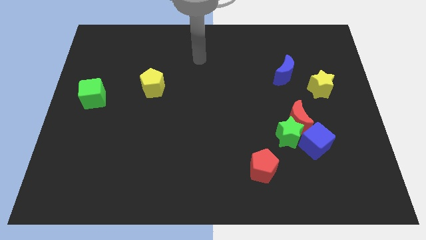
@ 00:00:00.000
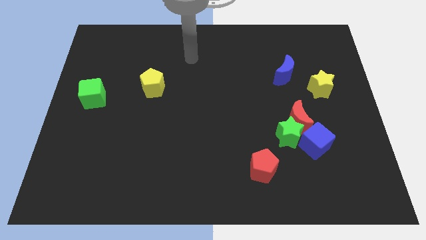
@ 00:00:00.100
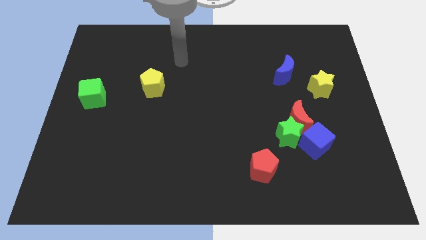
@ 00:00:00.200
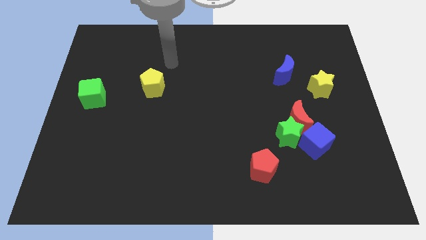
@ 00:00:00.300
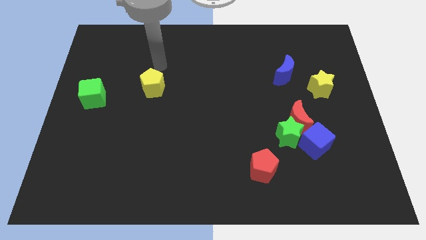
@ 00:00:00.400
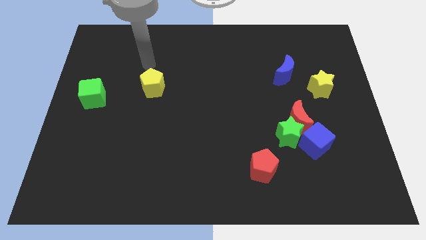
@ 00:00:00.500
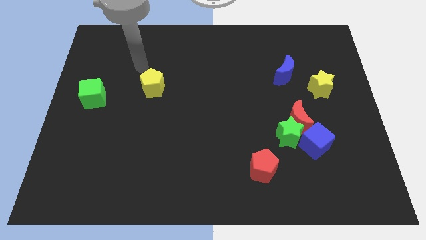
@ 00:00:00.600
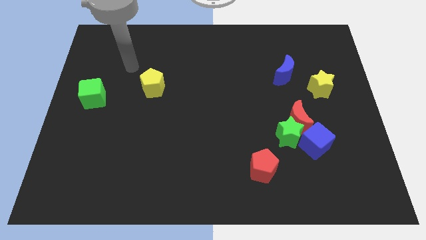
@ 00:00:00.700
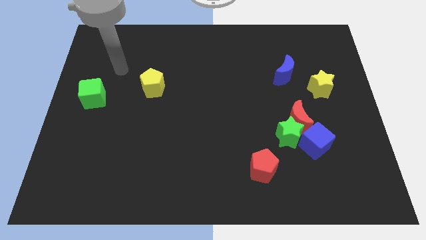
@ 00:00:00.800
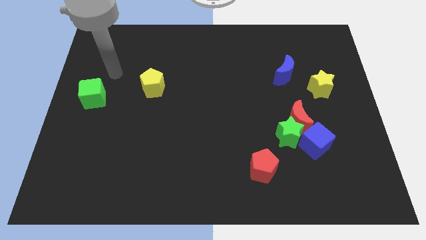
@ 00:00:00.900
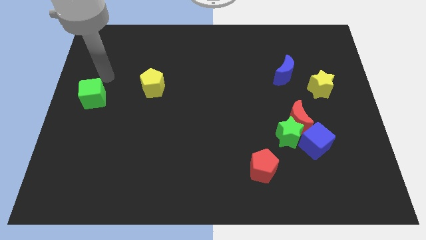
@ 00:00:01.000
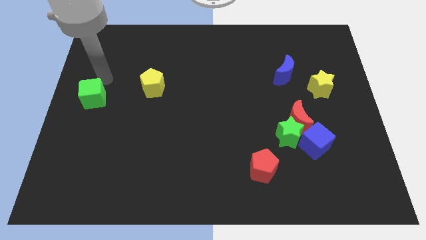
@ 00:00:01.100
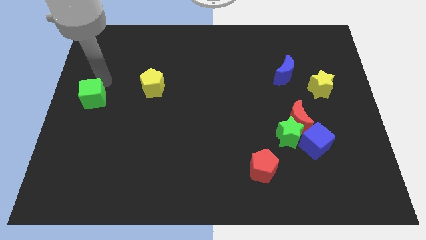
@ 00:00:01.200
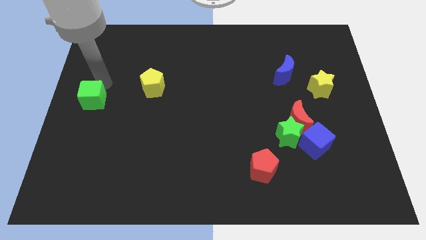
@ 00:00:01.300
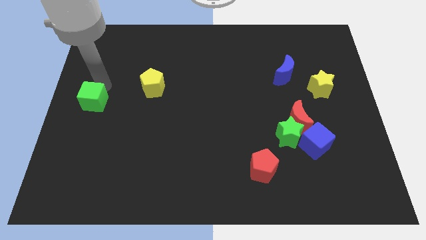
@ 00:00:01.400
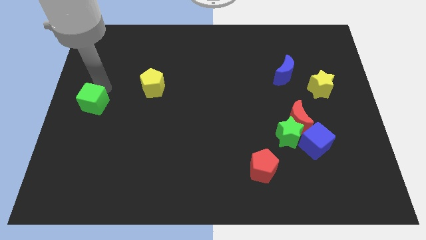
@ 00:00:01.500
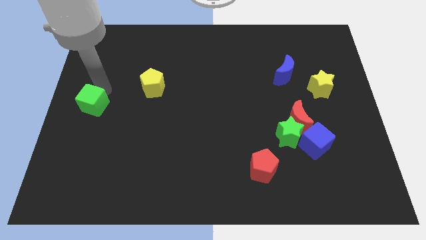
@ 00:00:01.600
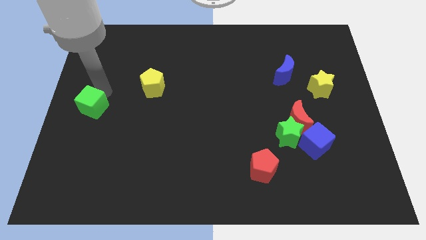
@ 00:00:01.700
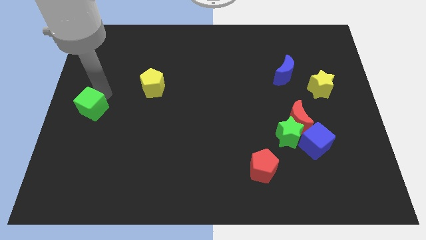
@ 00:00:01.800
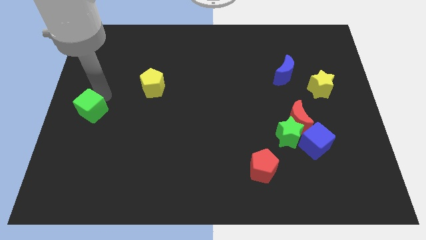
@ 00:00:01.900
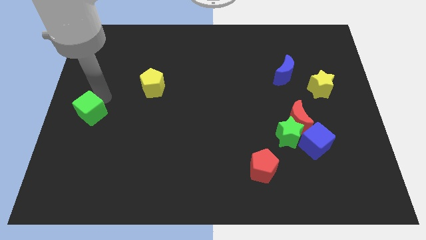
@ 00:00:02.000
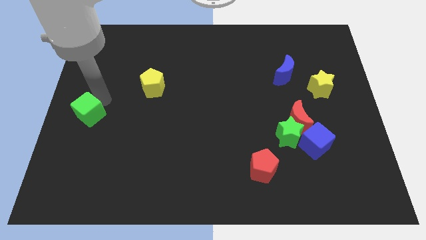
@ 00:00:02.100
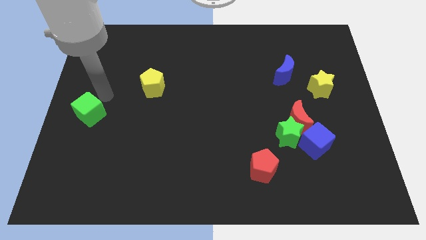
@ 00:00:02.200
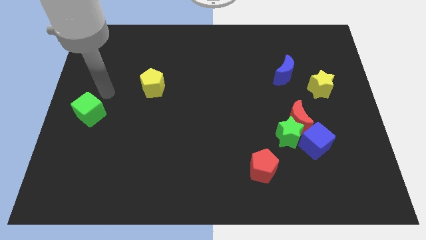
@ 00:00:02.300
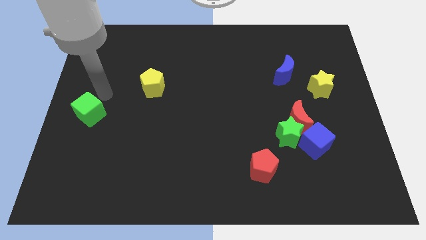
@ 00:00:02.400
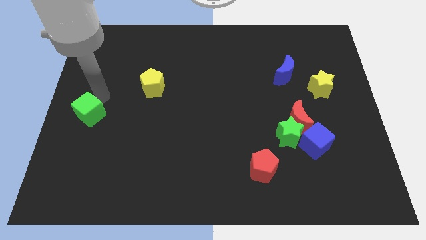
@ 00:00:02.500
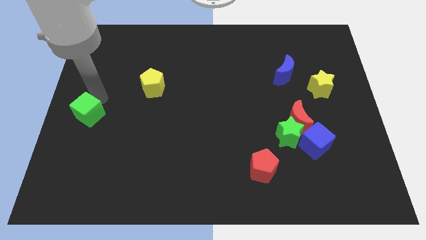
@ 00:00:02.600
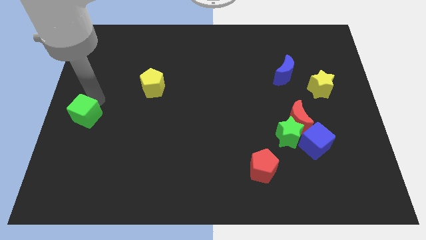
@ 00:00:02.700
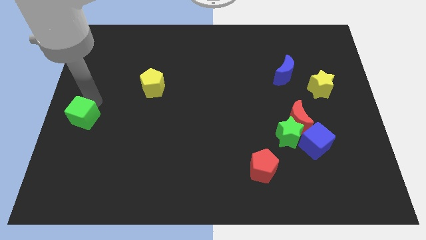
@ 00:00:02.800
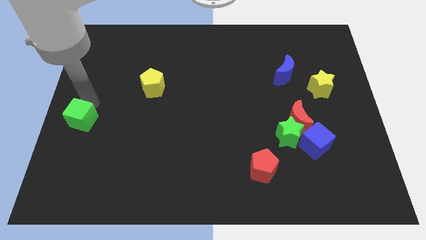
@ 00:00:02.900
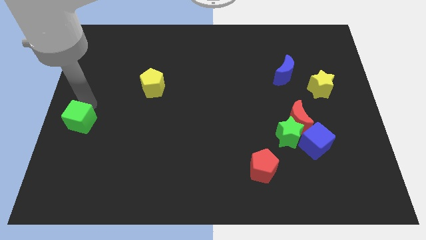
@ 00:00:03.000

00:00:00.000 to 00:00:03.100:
slide the green cube somewhat downwards

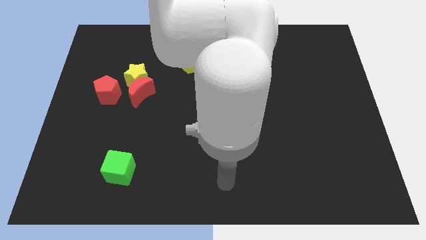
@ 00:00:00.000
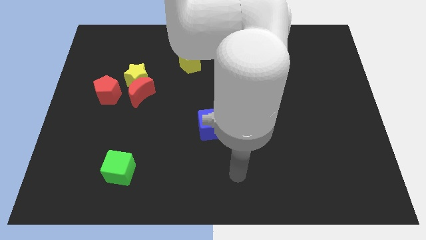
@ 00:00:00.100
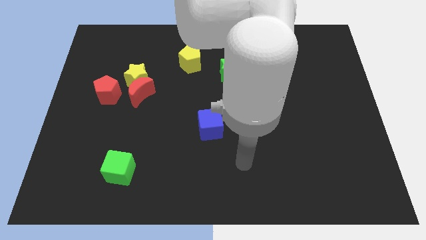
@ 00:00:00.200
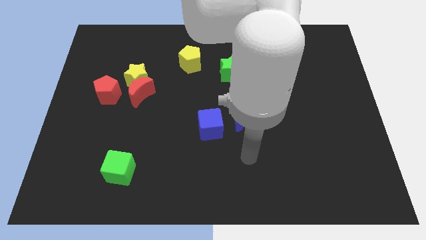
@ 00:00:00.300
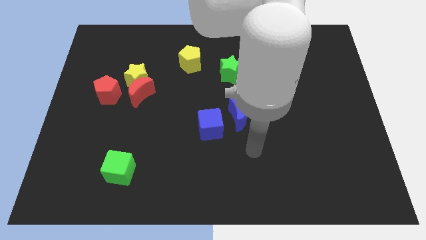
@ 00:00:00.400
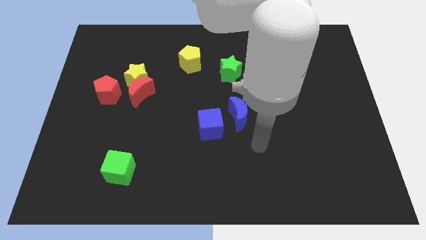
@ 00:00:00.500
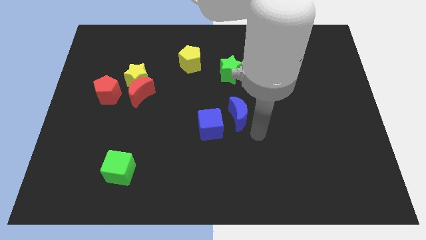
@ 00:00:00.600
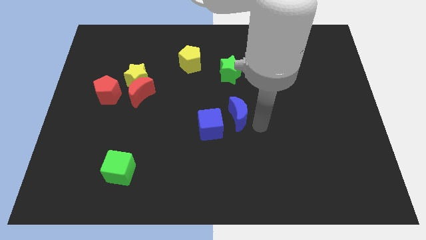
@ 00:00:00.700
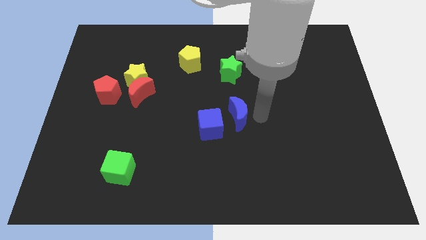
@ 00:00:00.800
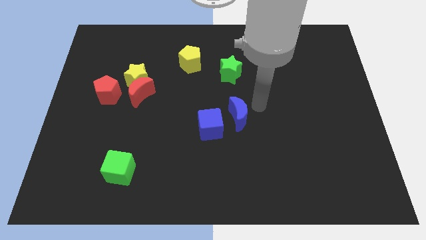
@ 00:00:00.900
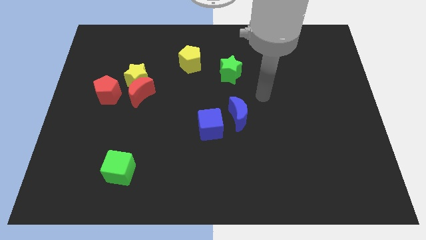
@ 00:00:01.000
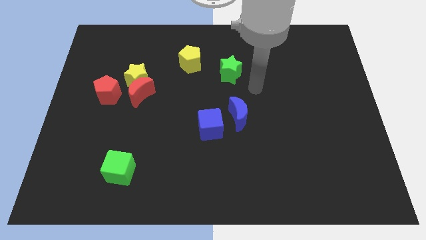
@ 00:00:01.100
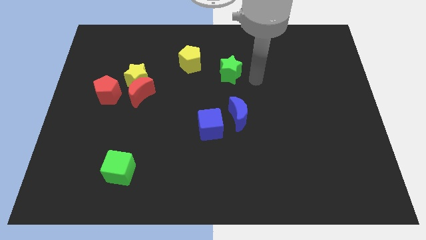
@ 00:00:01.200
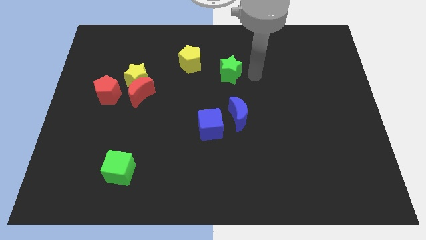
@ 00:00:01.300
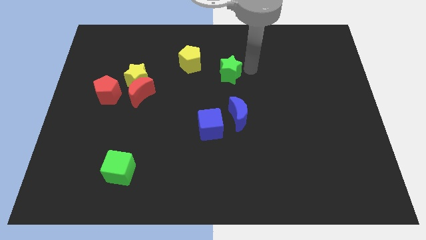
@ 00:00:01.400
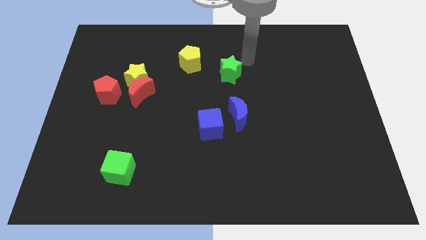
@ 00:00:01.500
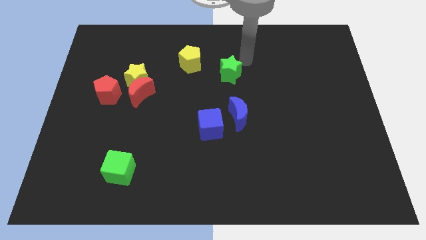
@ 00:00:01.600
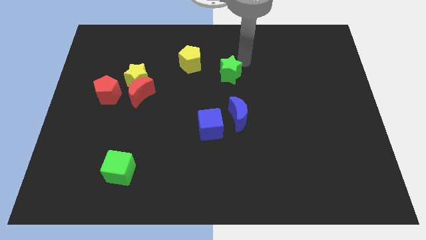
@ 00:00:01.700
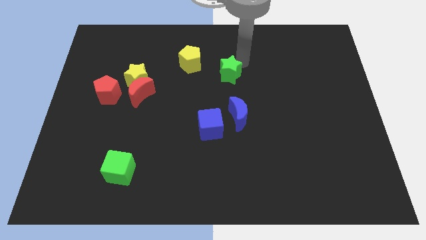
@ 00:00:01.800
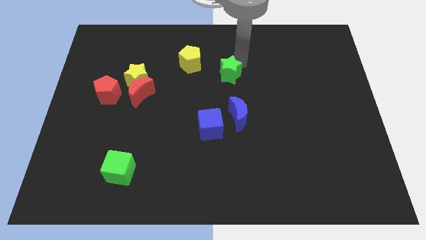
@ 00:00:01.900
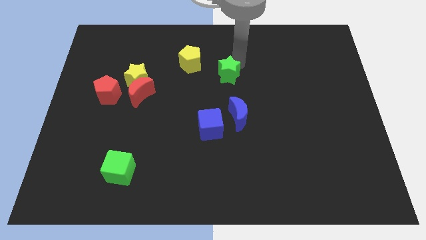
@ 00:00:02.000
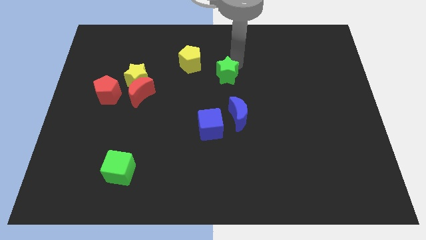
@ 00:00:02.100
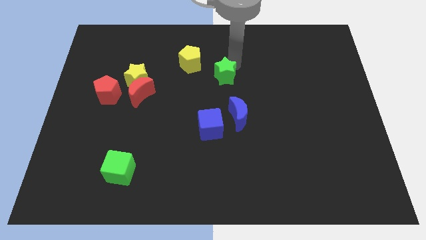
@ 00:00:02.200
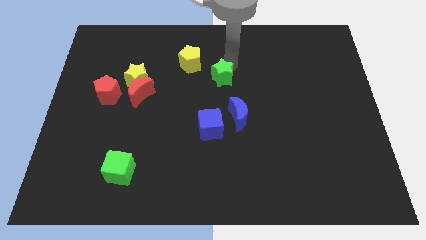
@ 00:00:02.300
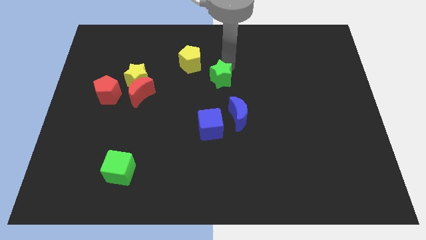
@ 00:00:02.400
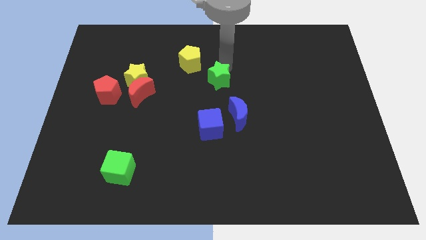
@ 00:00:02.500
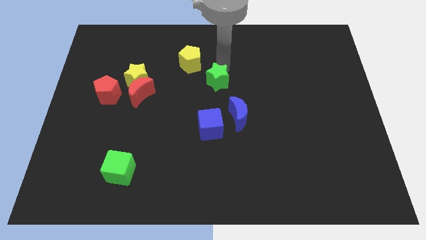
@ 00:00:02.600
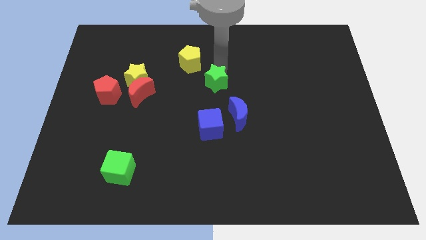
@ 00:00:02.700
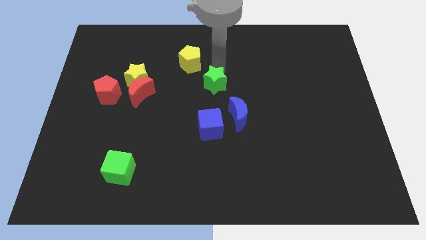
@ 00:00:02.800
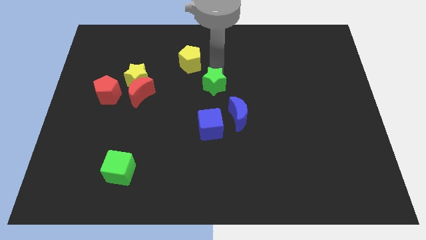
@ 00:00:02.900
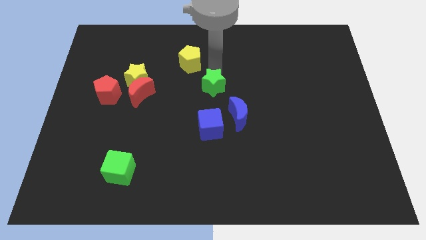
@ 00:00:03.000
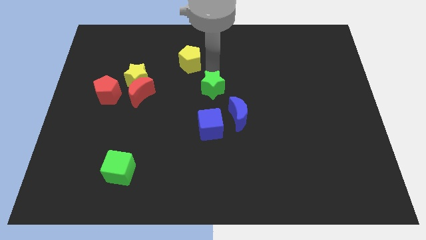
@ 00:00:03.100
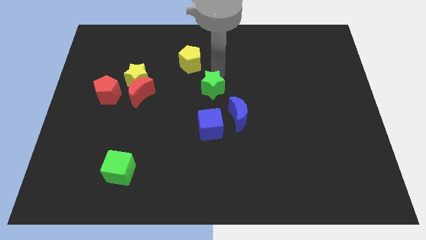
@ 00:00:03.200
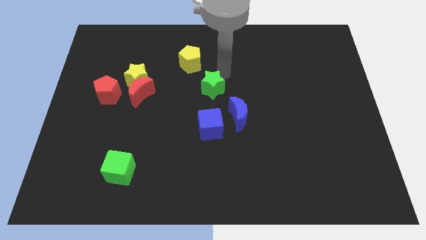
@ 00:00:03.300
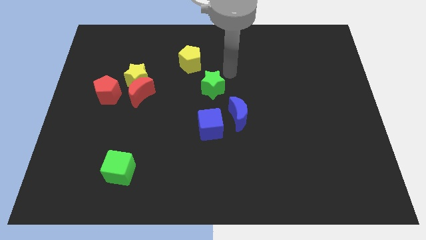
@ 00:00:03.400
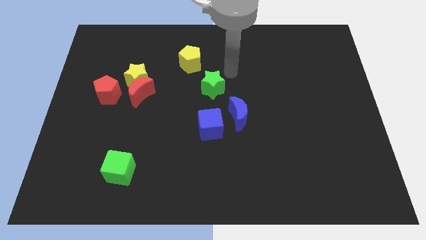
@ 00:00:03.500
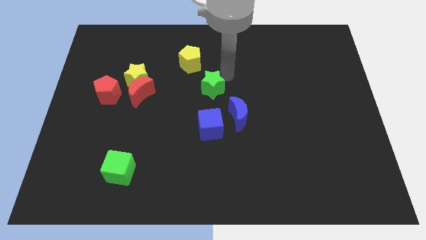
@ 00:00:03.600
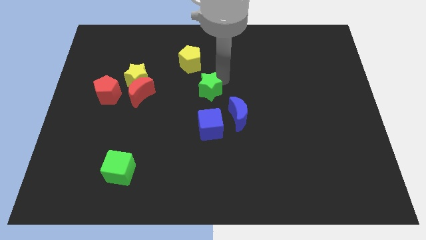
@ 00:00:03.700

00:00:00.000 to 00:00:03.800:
slide the green star slightly diagonally downwards and left

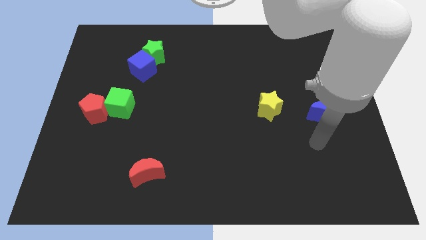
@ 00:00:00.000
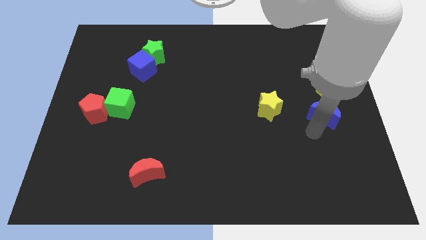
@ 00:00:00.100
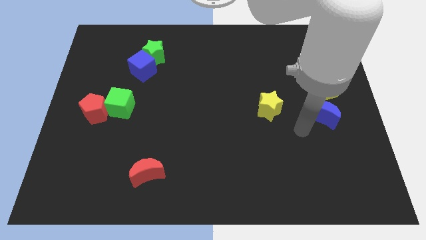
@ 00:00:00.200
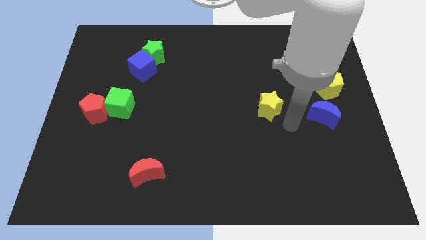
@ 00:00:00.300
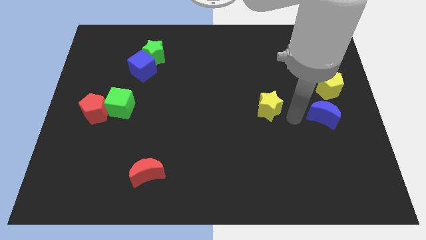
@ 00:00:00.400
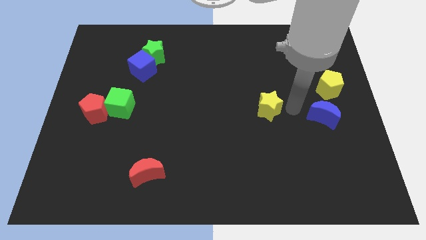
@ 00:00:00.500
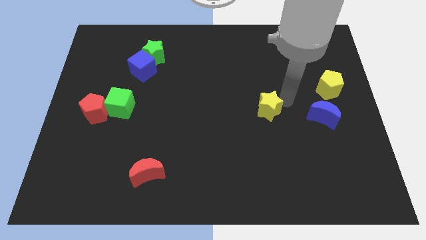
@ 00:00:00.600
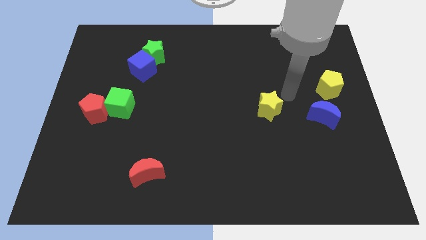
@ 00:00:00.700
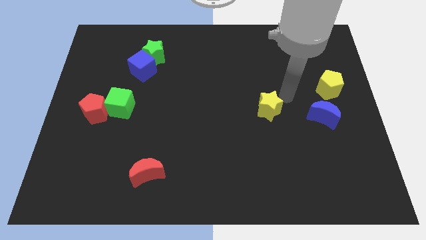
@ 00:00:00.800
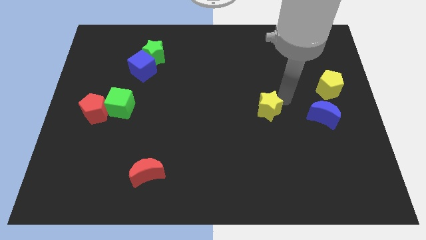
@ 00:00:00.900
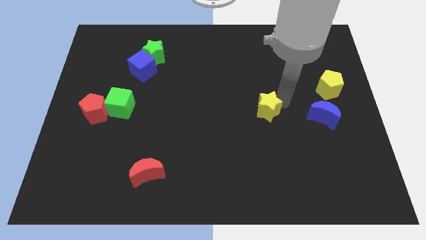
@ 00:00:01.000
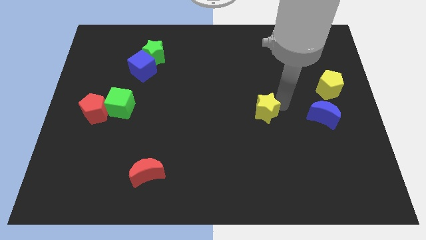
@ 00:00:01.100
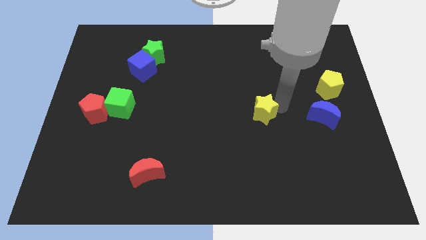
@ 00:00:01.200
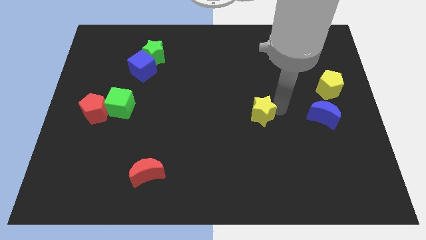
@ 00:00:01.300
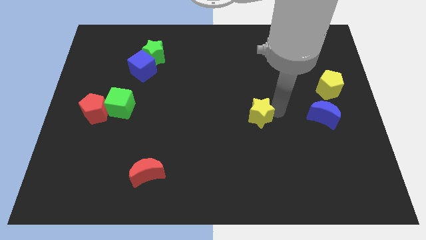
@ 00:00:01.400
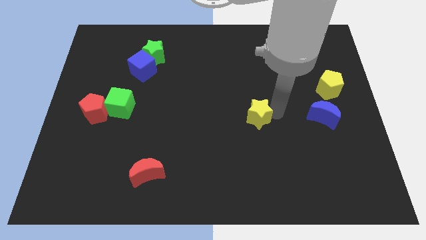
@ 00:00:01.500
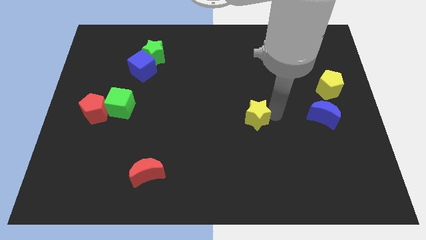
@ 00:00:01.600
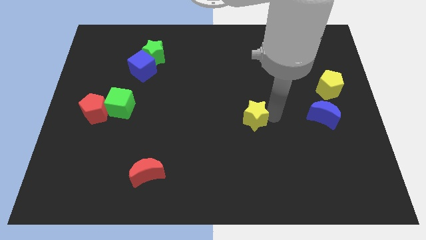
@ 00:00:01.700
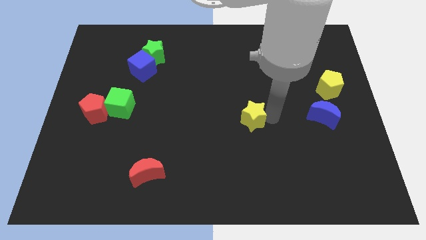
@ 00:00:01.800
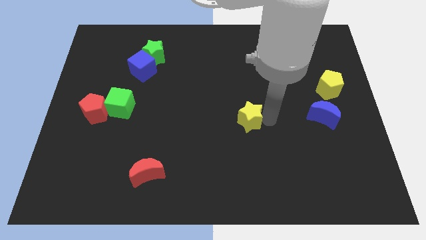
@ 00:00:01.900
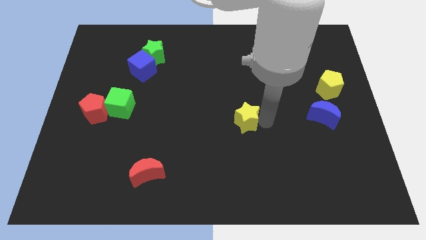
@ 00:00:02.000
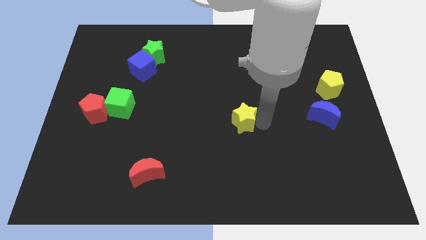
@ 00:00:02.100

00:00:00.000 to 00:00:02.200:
move the yellow star down and then to the left a little bit
